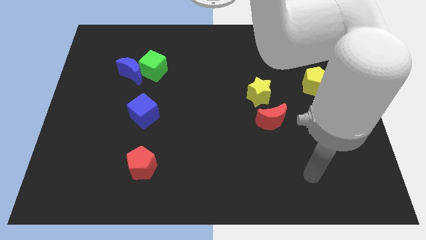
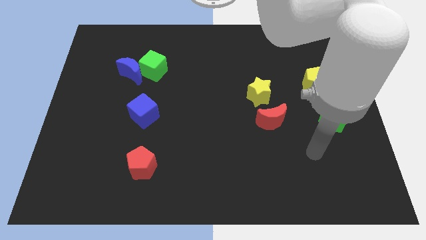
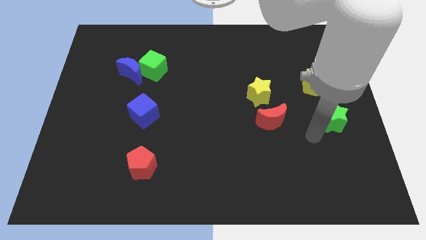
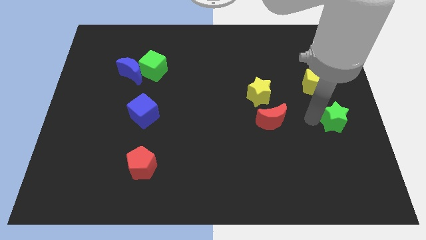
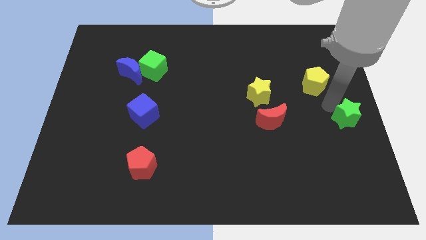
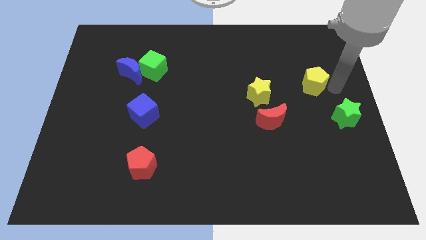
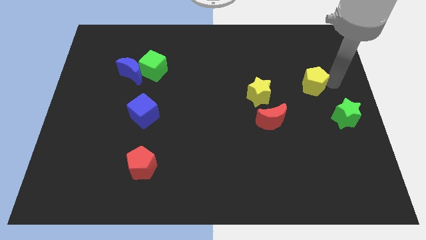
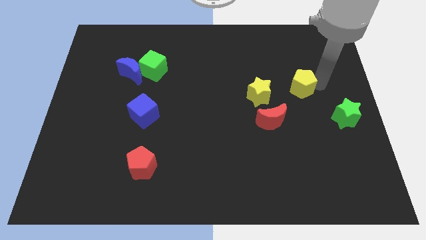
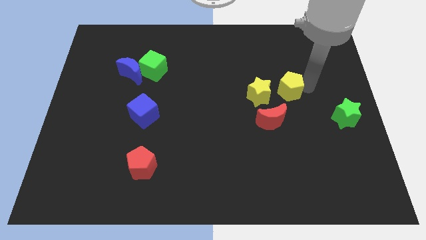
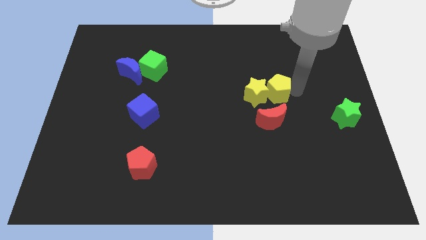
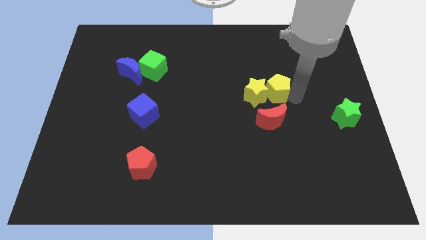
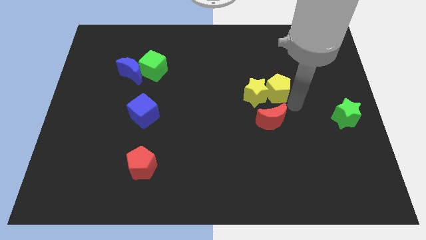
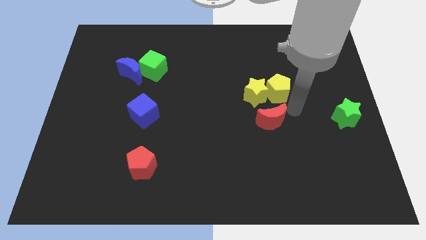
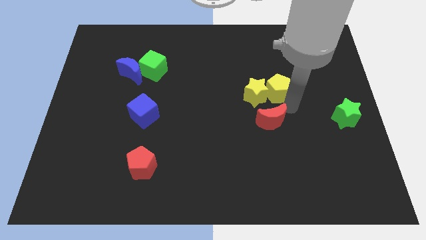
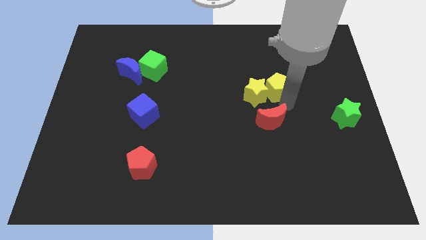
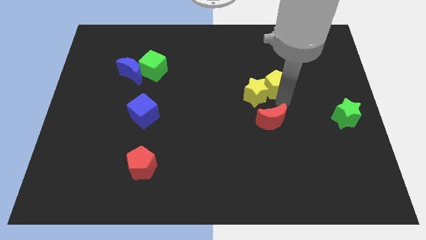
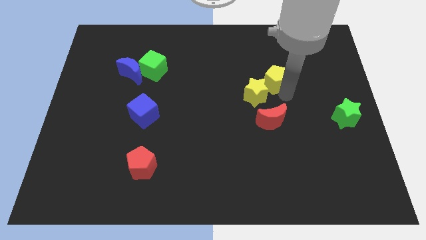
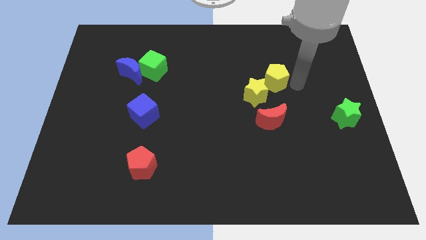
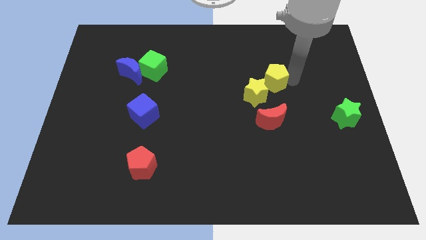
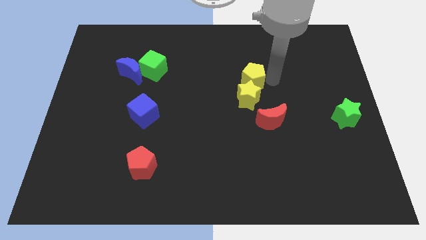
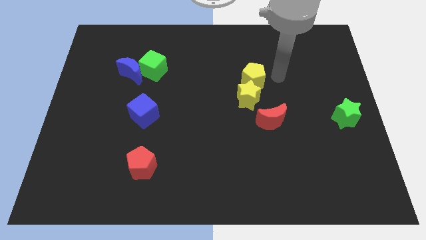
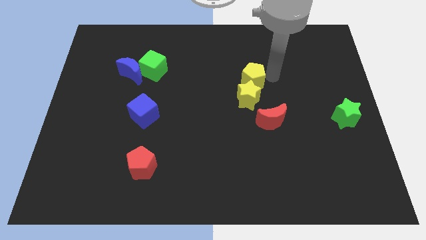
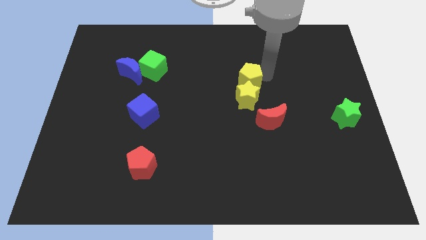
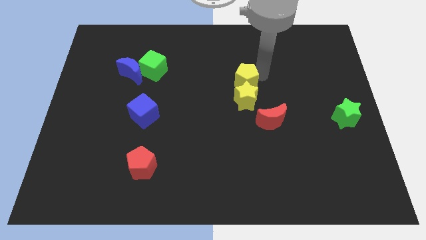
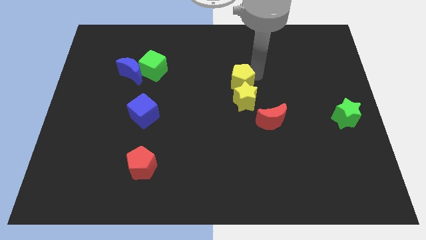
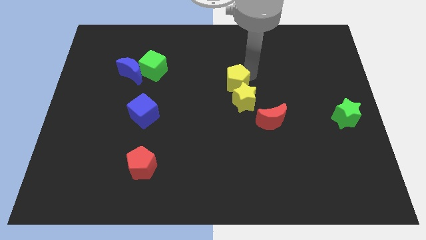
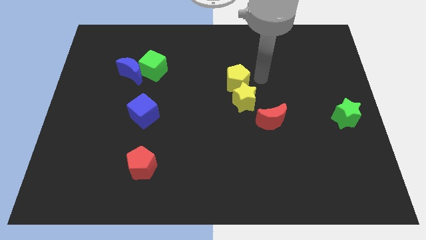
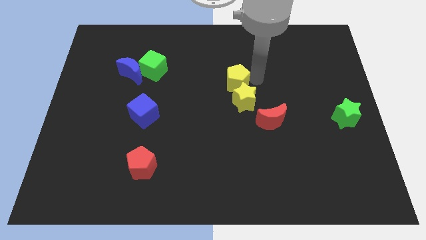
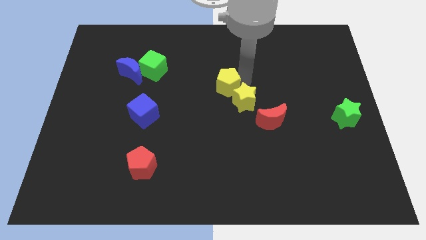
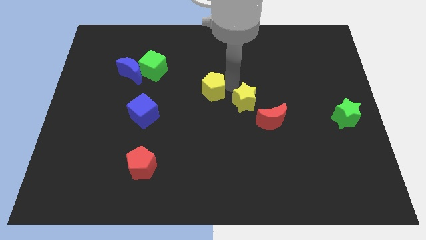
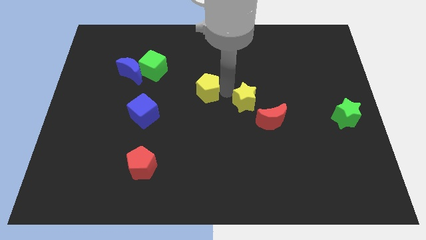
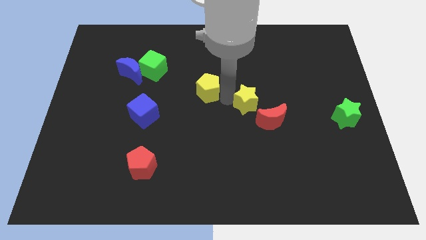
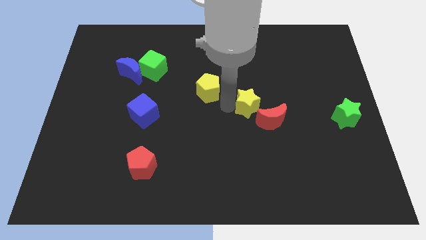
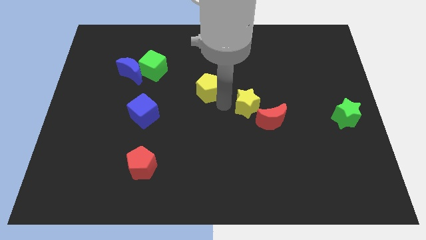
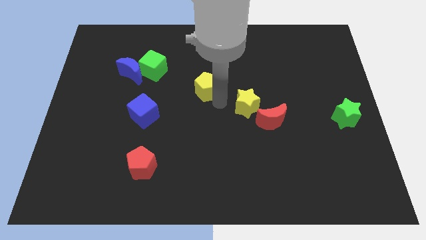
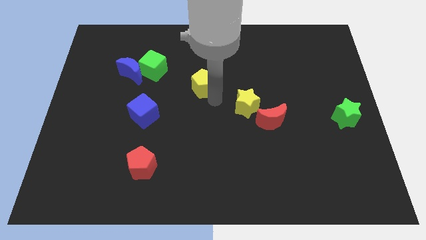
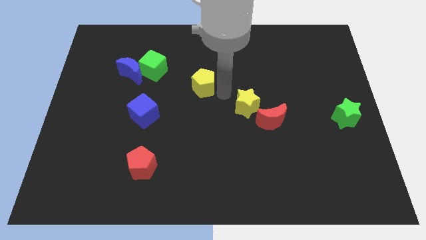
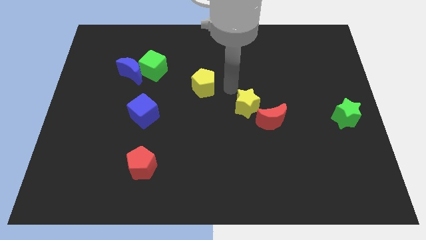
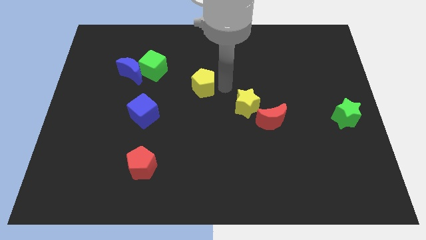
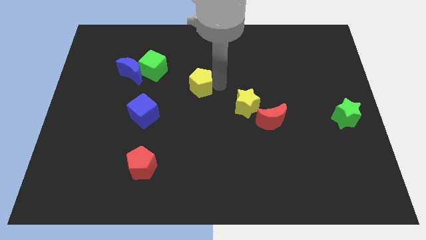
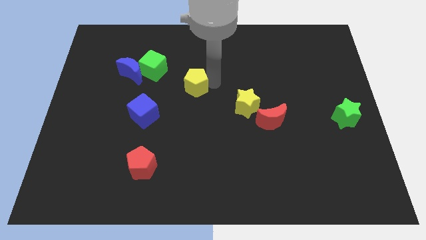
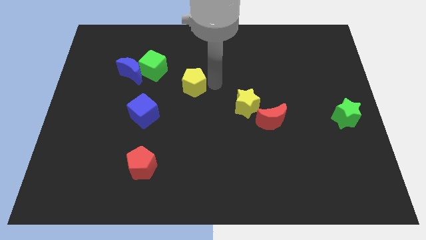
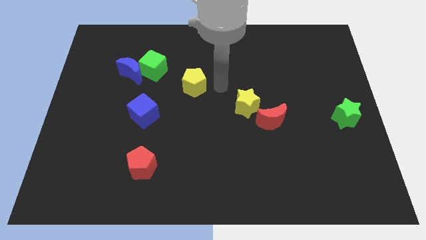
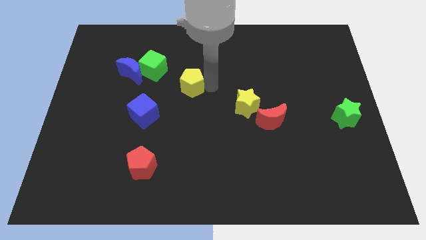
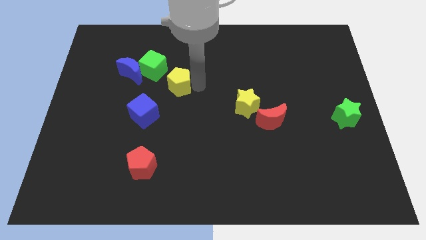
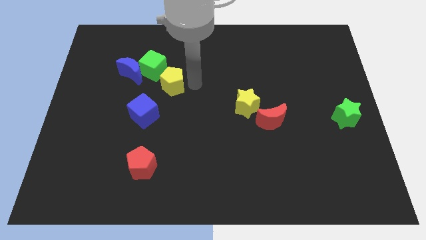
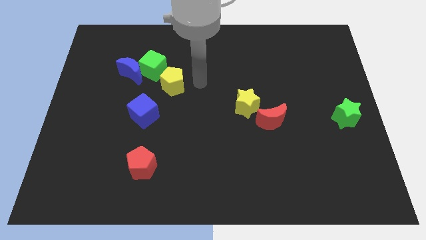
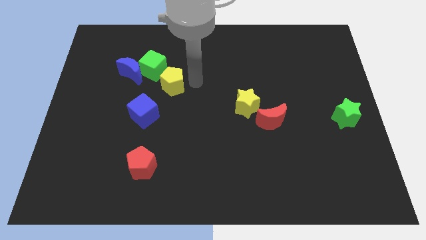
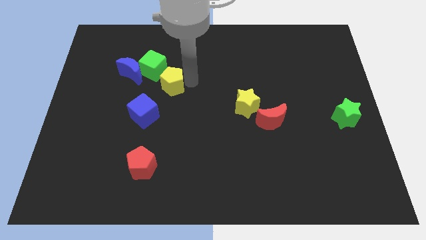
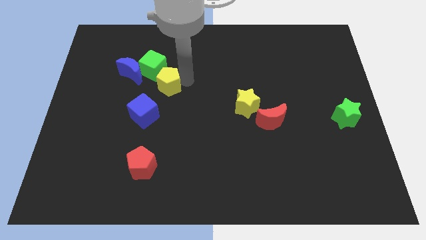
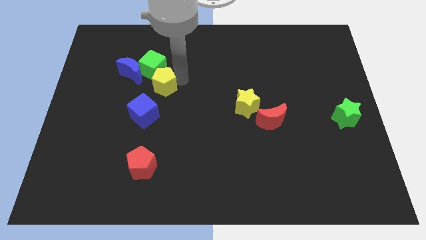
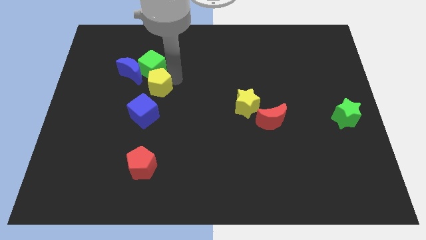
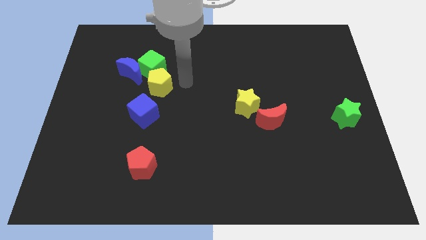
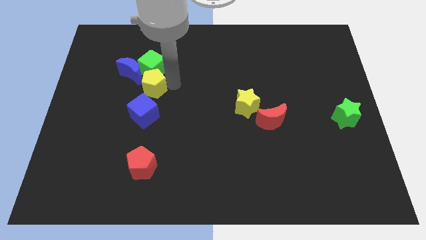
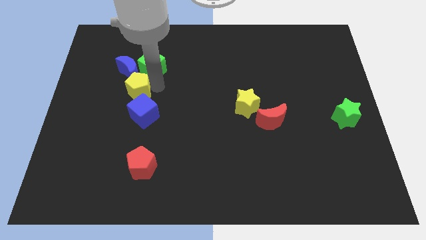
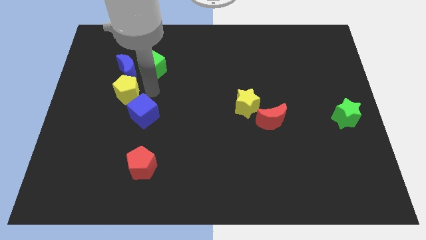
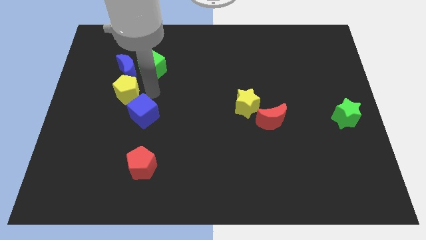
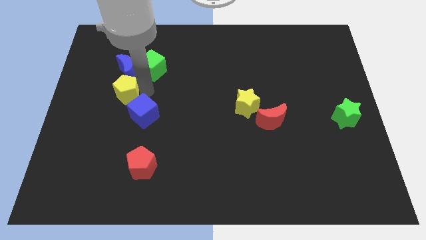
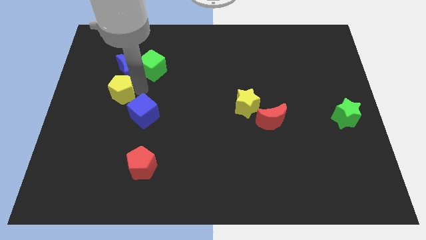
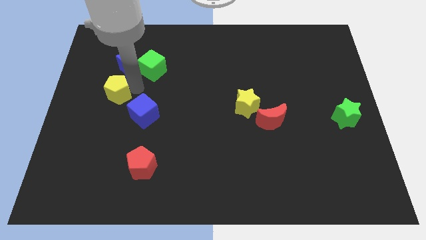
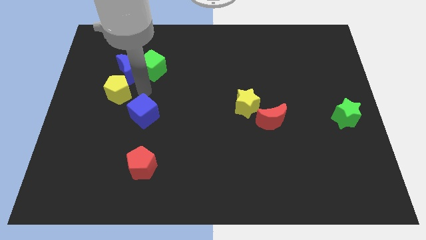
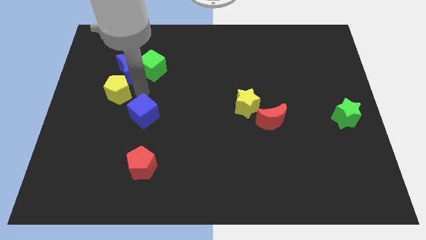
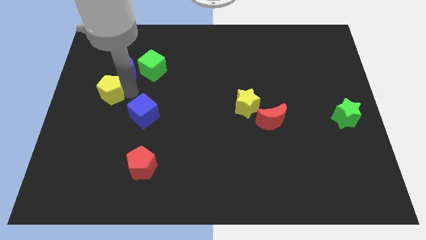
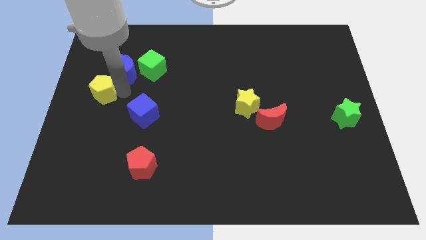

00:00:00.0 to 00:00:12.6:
slide the yellow pentagon to the left side
